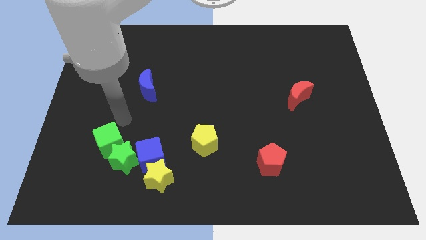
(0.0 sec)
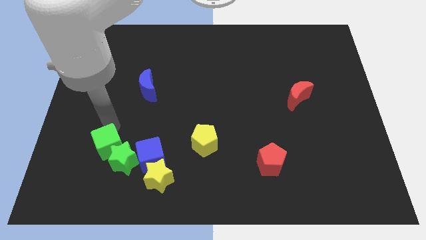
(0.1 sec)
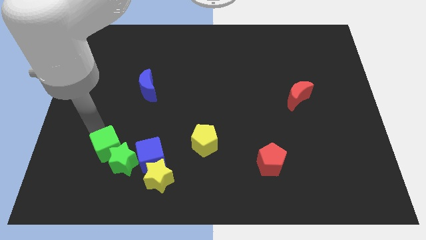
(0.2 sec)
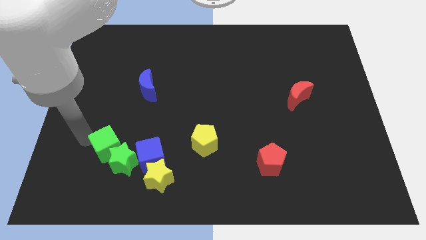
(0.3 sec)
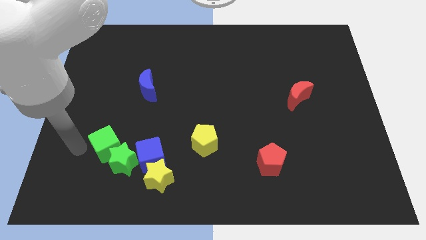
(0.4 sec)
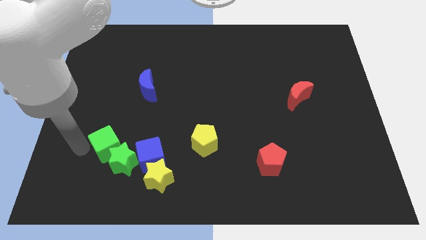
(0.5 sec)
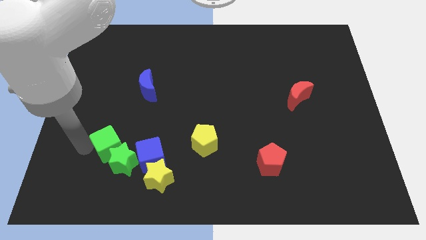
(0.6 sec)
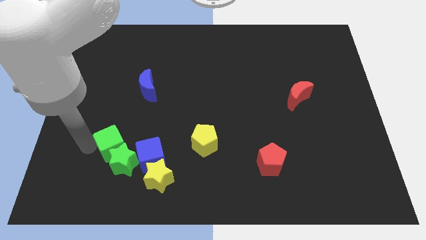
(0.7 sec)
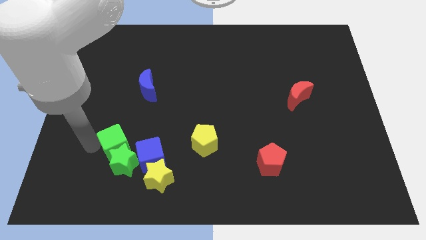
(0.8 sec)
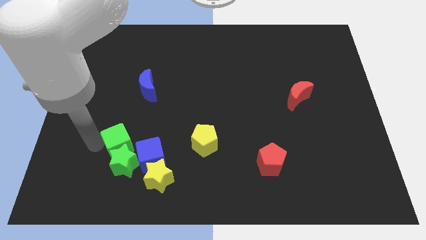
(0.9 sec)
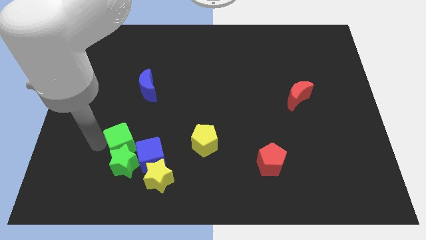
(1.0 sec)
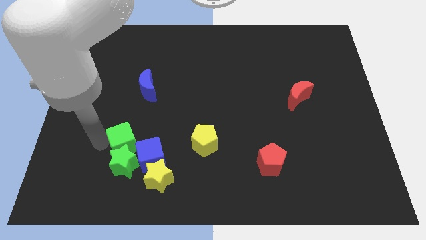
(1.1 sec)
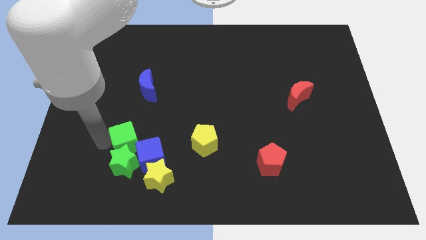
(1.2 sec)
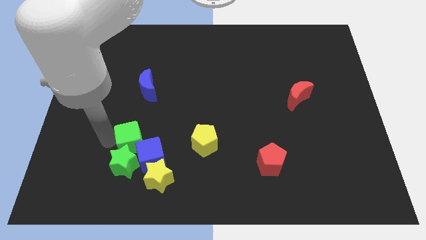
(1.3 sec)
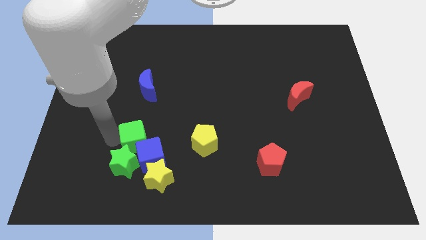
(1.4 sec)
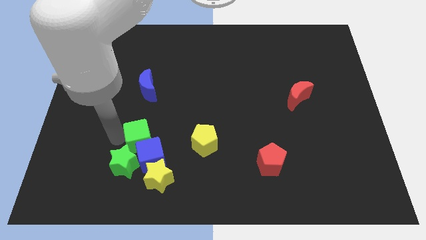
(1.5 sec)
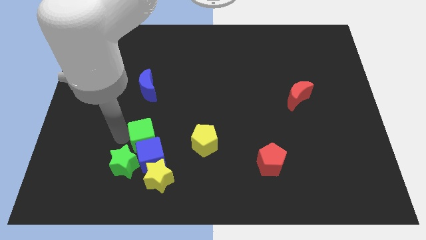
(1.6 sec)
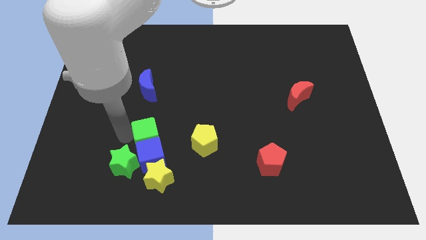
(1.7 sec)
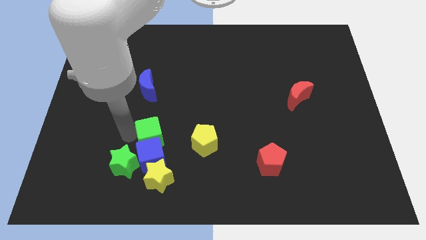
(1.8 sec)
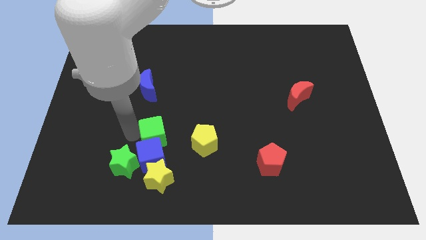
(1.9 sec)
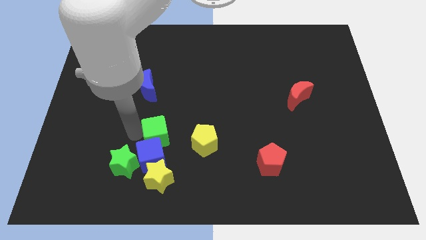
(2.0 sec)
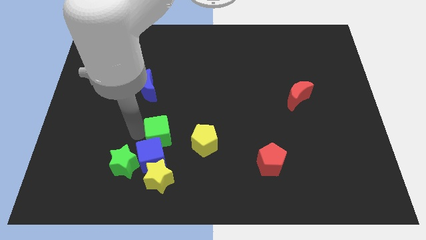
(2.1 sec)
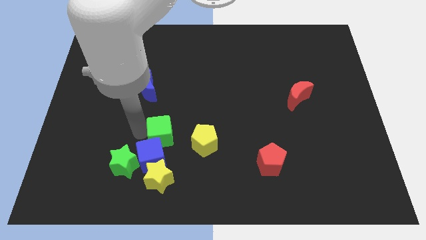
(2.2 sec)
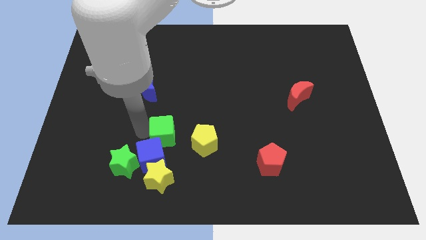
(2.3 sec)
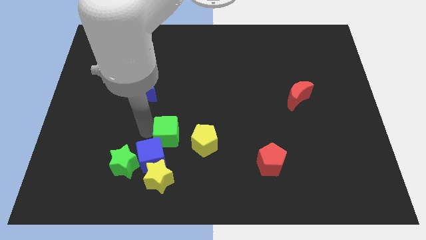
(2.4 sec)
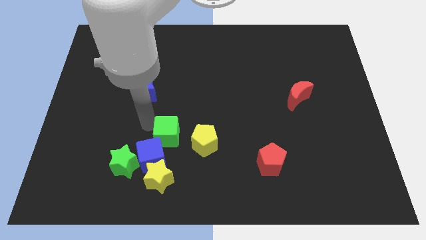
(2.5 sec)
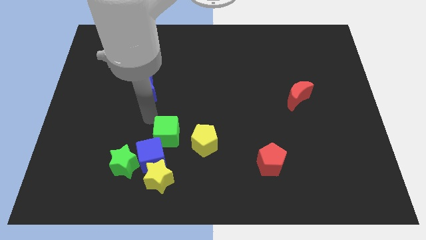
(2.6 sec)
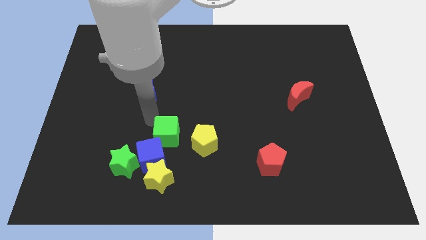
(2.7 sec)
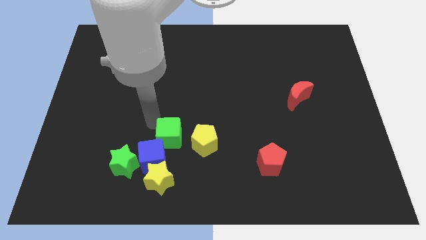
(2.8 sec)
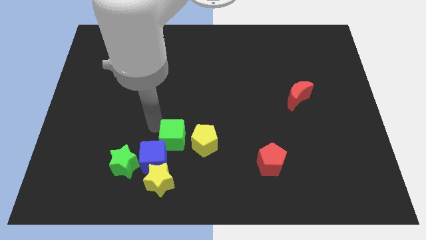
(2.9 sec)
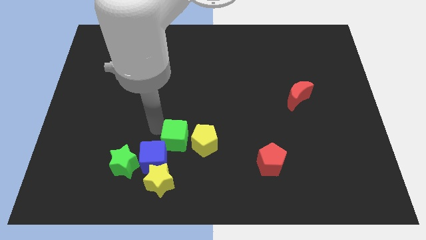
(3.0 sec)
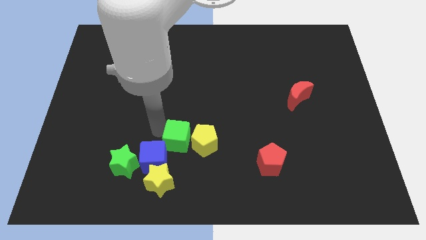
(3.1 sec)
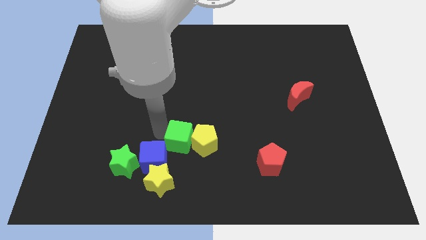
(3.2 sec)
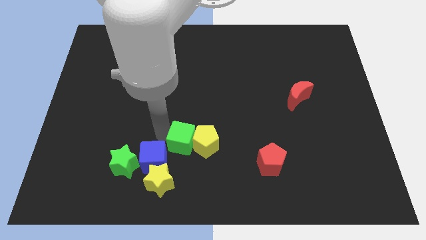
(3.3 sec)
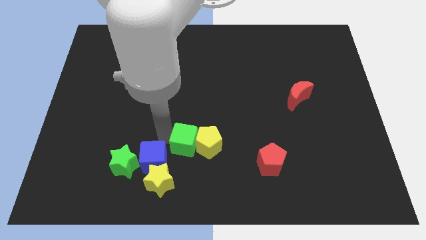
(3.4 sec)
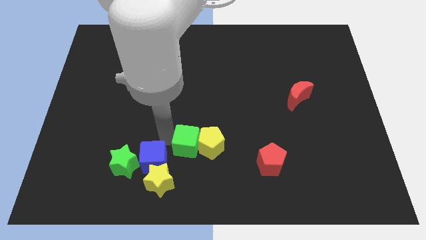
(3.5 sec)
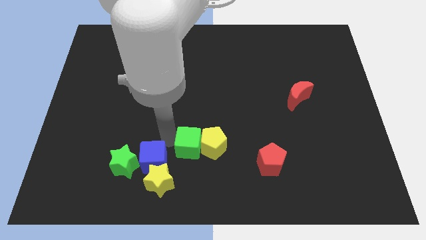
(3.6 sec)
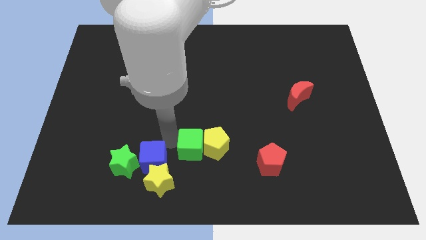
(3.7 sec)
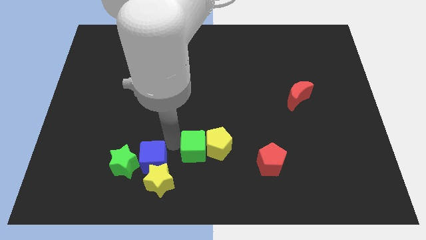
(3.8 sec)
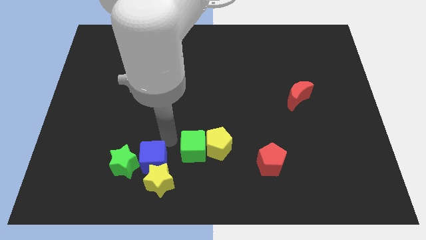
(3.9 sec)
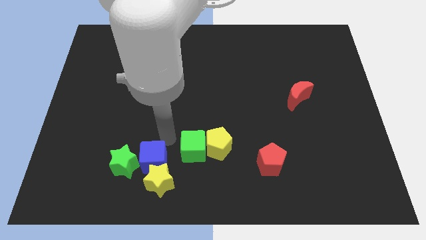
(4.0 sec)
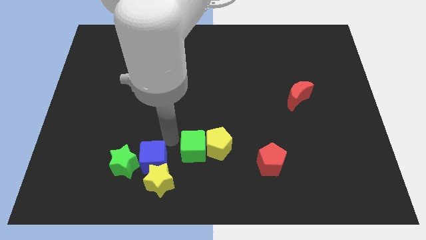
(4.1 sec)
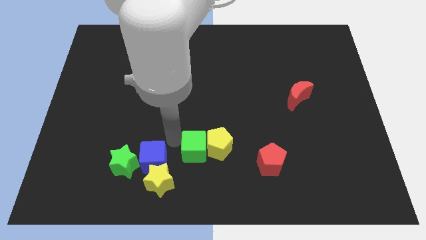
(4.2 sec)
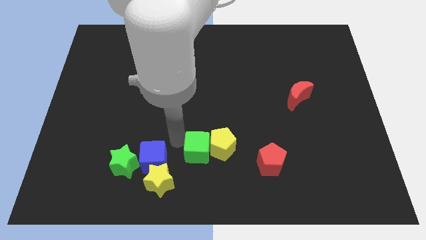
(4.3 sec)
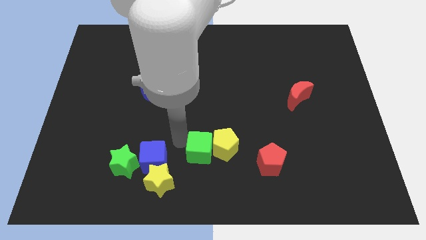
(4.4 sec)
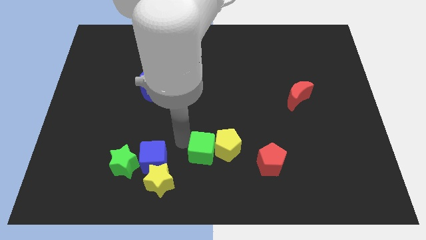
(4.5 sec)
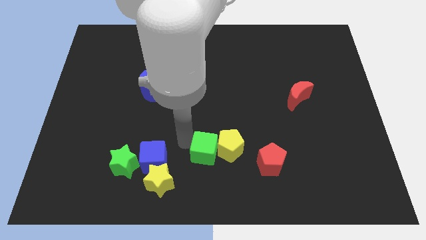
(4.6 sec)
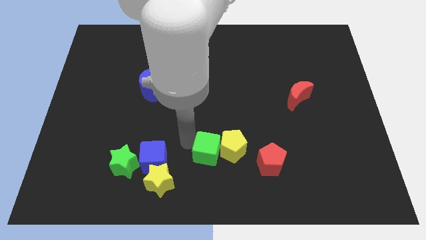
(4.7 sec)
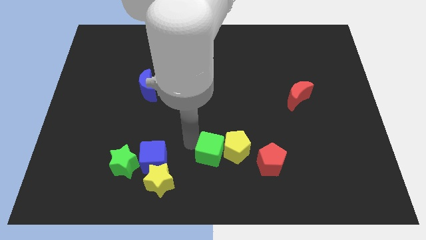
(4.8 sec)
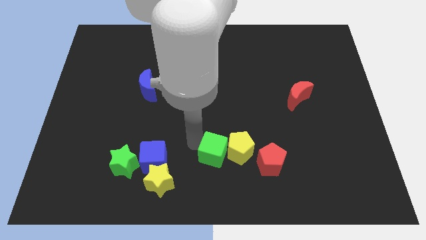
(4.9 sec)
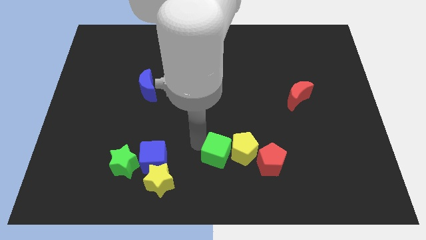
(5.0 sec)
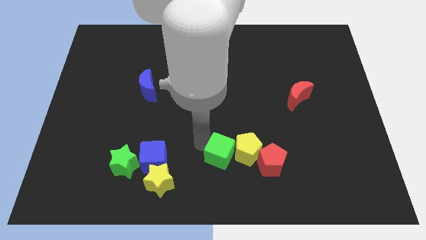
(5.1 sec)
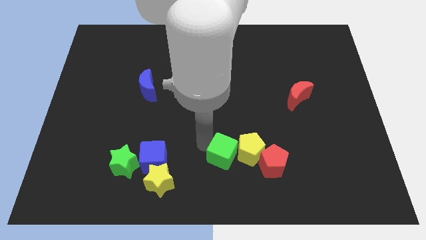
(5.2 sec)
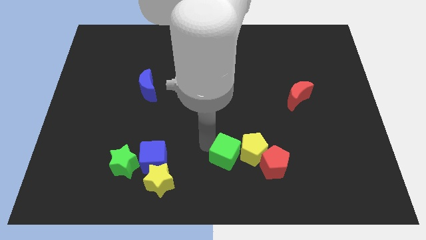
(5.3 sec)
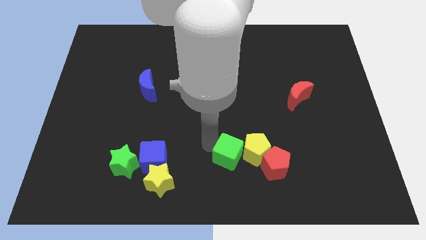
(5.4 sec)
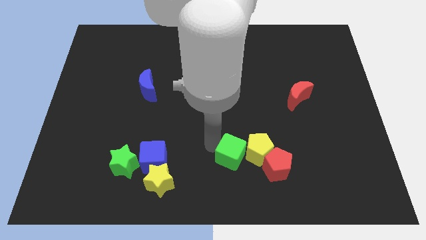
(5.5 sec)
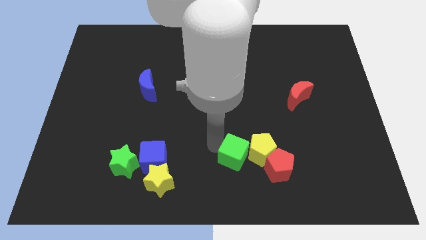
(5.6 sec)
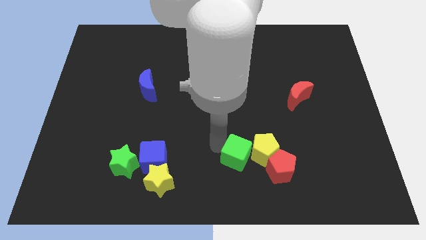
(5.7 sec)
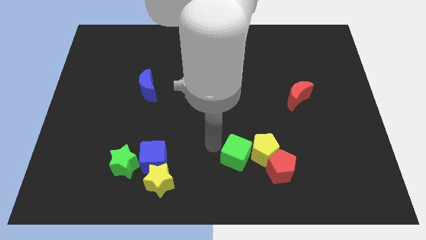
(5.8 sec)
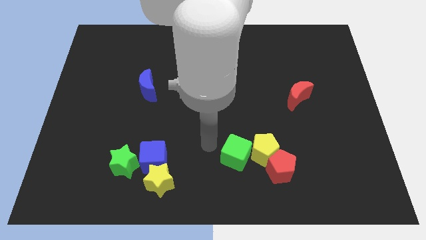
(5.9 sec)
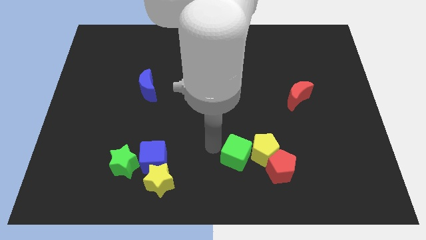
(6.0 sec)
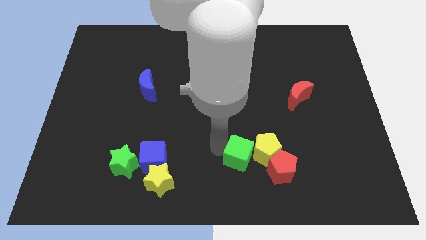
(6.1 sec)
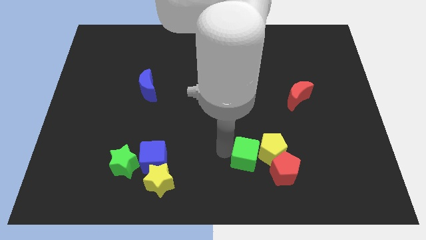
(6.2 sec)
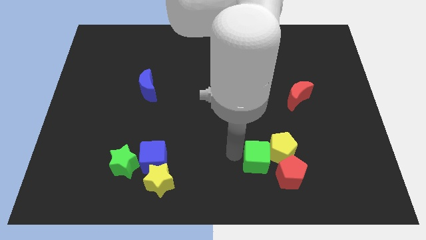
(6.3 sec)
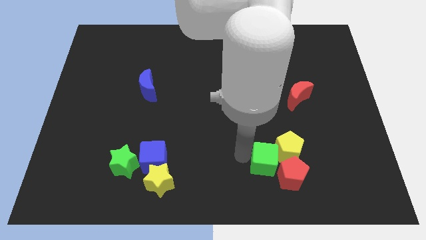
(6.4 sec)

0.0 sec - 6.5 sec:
slide the green cube close to the red pentagon

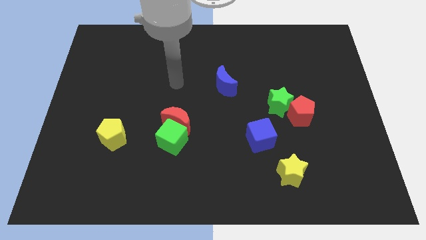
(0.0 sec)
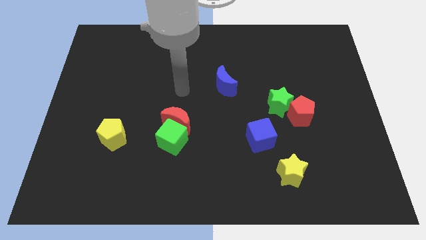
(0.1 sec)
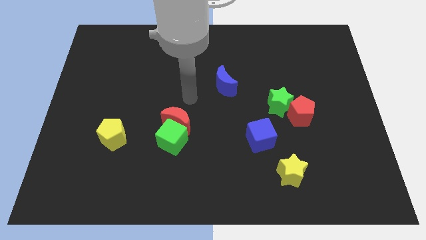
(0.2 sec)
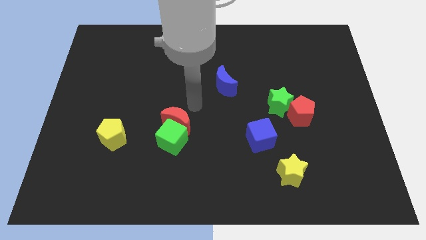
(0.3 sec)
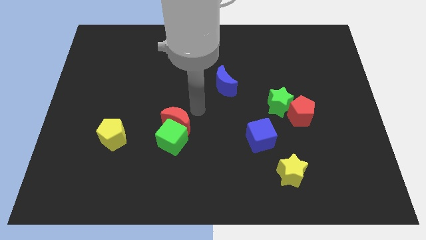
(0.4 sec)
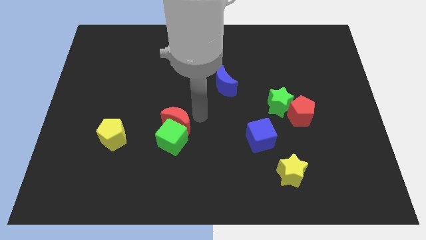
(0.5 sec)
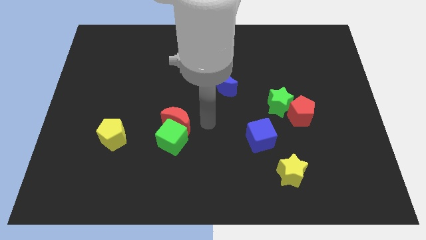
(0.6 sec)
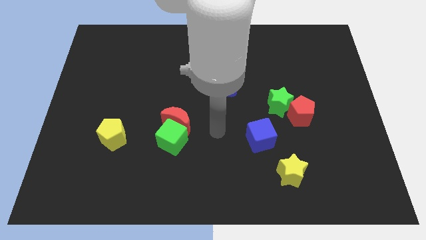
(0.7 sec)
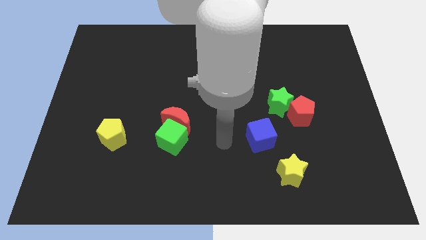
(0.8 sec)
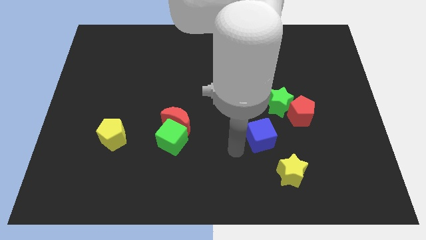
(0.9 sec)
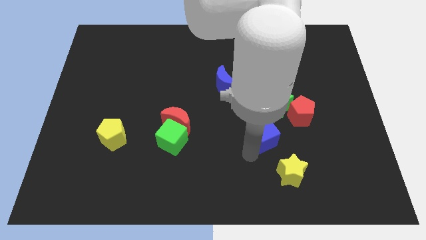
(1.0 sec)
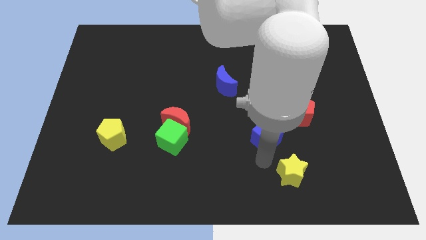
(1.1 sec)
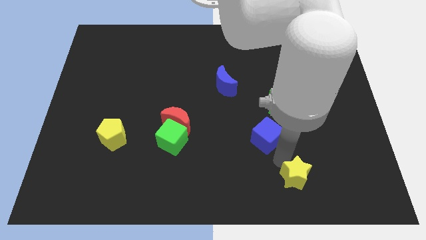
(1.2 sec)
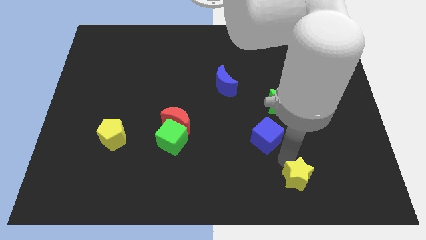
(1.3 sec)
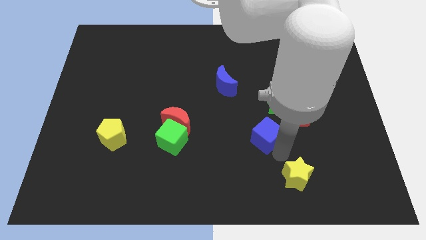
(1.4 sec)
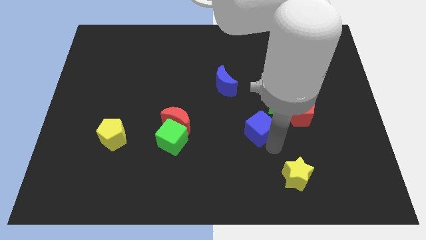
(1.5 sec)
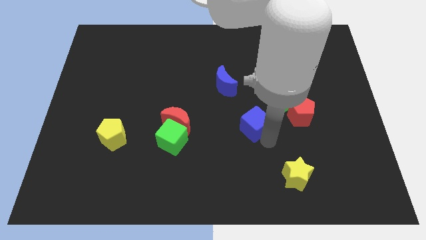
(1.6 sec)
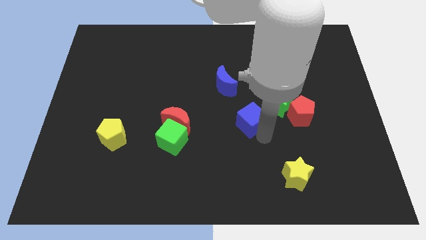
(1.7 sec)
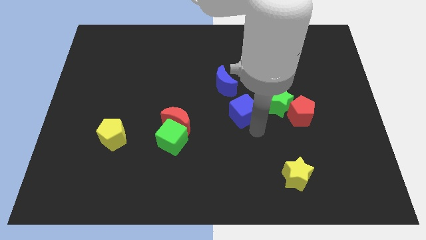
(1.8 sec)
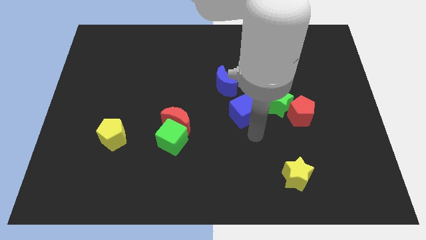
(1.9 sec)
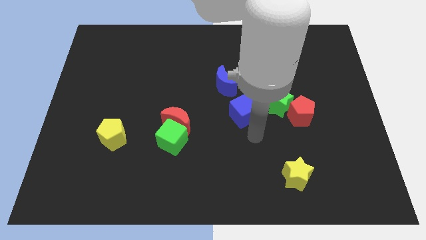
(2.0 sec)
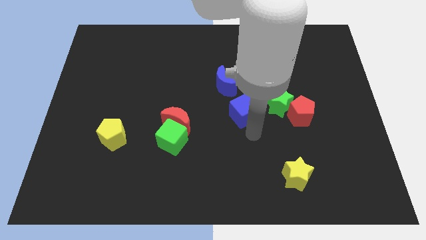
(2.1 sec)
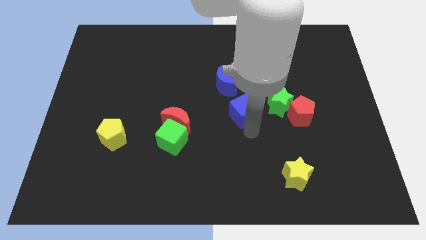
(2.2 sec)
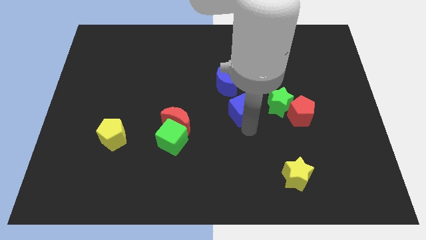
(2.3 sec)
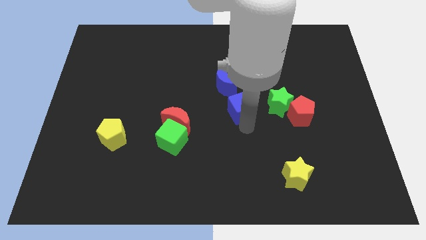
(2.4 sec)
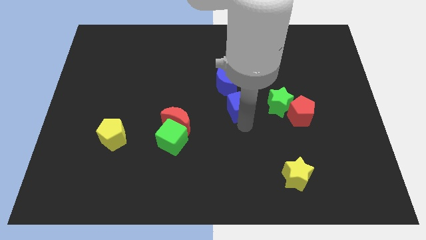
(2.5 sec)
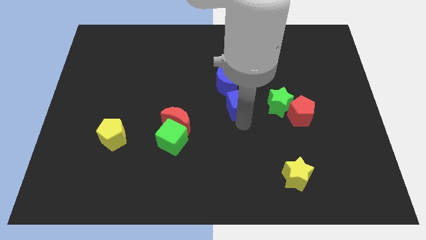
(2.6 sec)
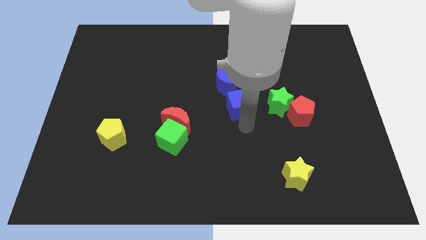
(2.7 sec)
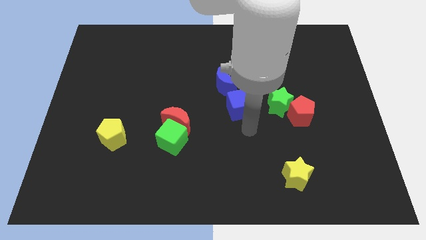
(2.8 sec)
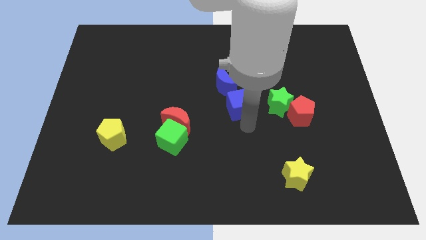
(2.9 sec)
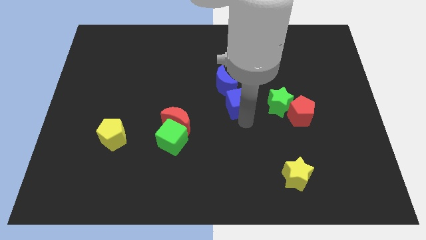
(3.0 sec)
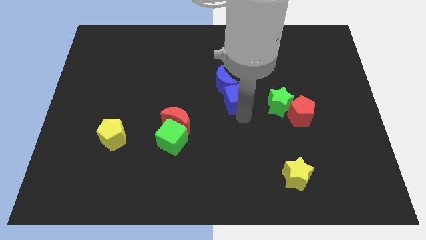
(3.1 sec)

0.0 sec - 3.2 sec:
slide the blue cube close to the blue moon
